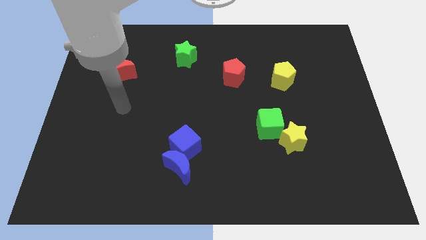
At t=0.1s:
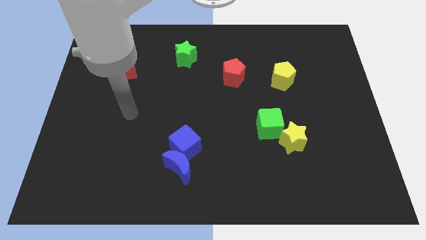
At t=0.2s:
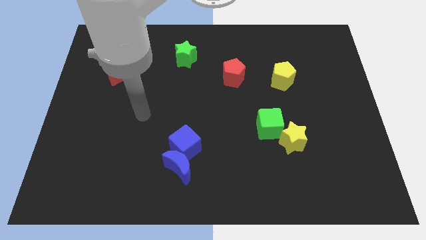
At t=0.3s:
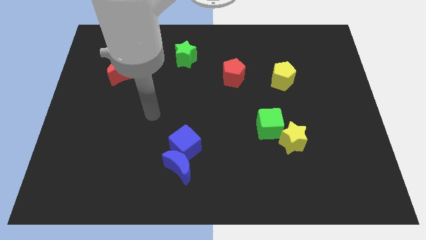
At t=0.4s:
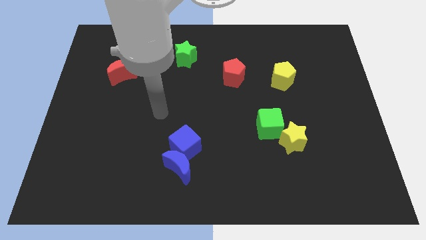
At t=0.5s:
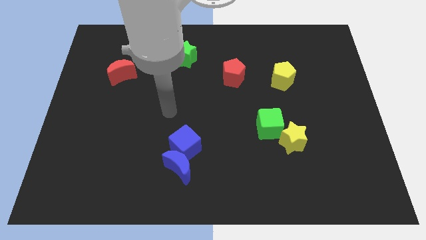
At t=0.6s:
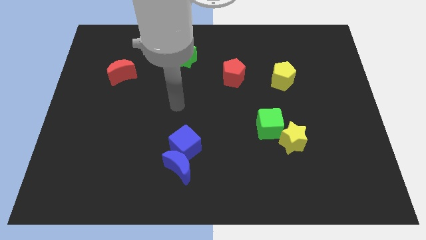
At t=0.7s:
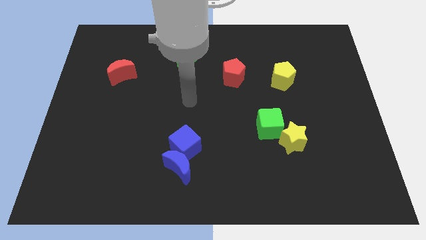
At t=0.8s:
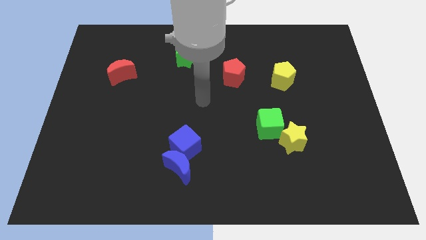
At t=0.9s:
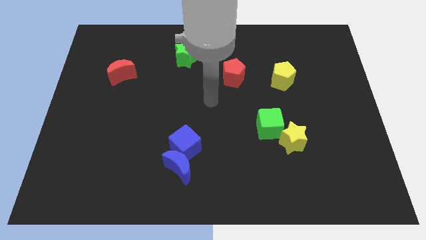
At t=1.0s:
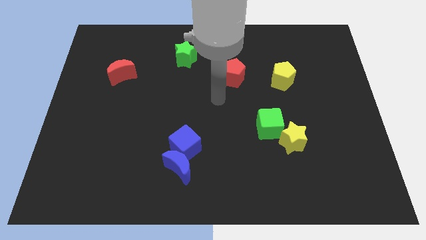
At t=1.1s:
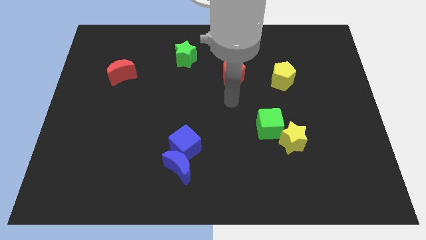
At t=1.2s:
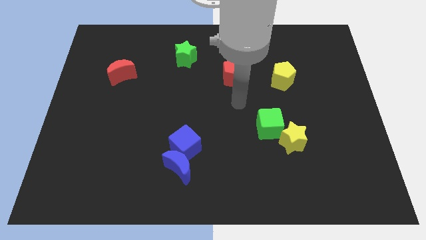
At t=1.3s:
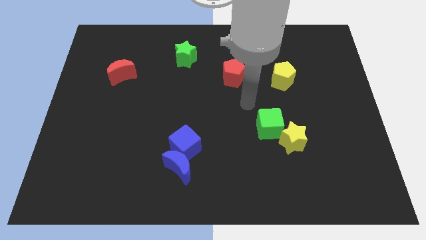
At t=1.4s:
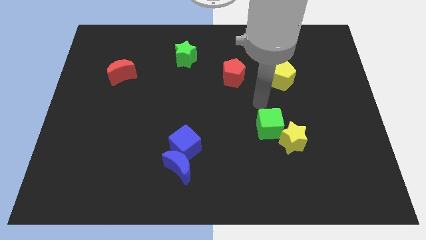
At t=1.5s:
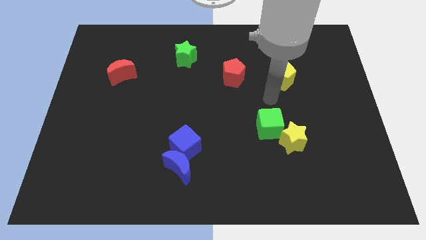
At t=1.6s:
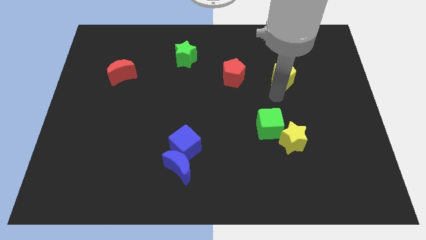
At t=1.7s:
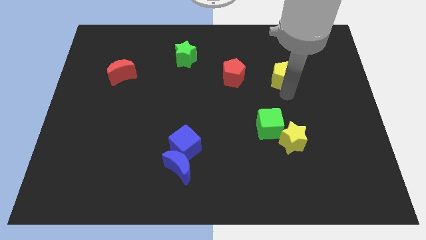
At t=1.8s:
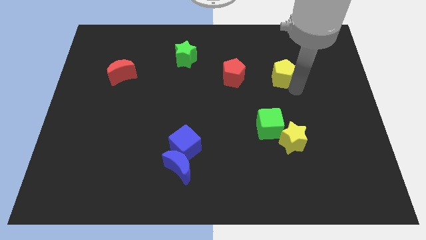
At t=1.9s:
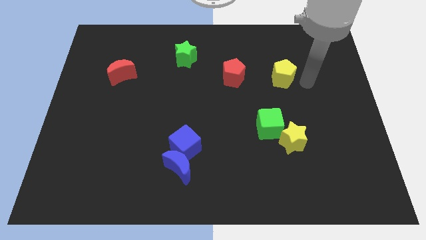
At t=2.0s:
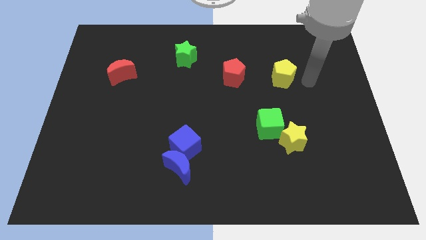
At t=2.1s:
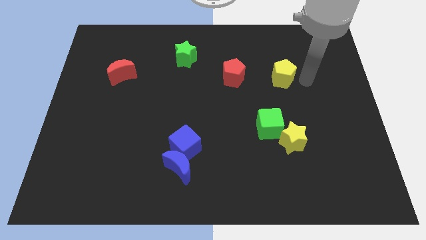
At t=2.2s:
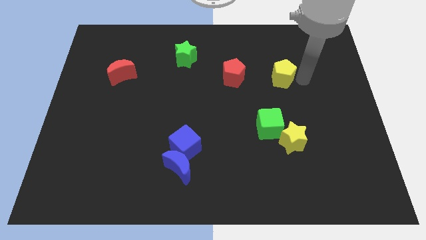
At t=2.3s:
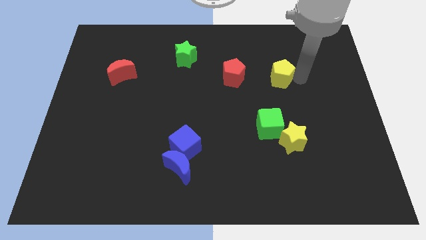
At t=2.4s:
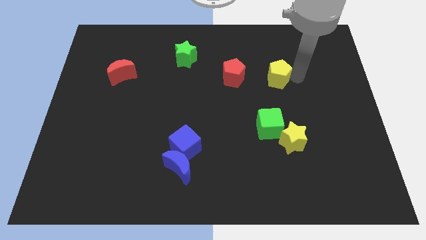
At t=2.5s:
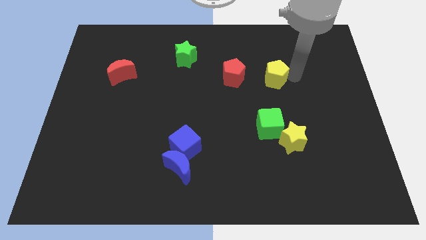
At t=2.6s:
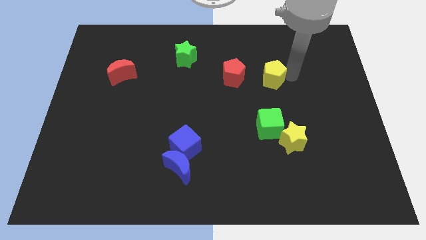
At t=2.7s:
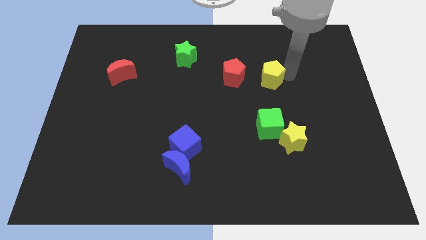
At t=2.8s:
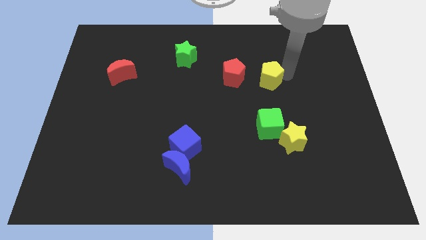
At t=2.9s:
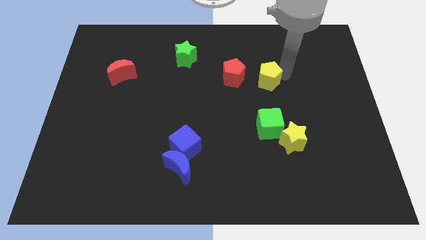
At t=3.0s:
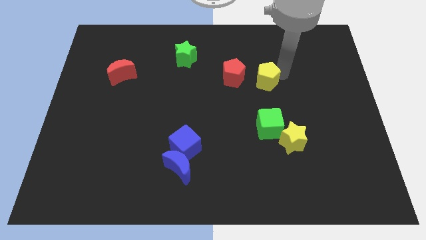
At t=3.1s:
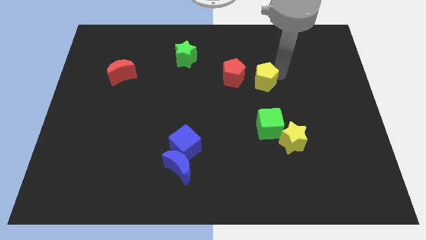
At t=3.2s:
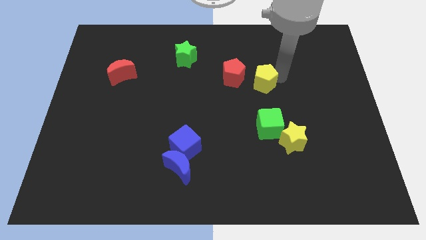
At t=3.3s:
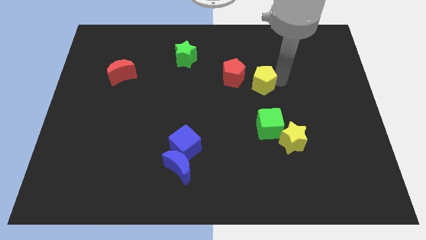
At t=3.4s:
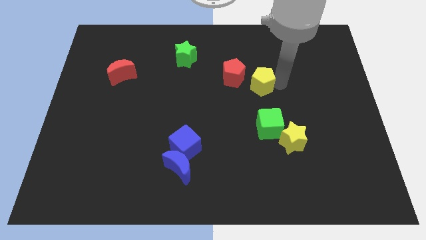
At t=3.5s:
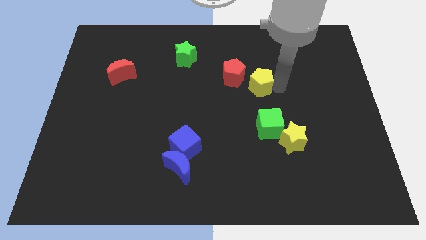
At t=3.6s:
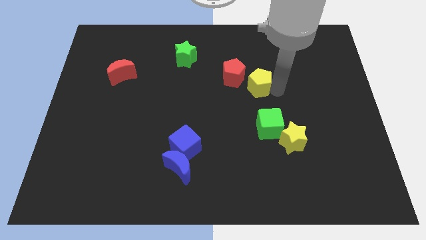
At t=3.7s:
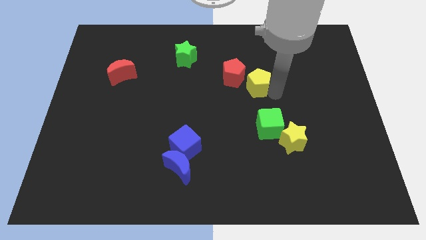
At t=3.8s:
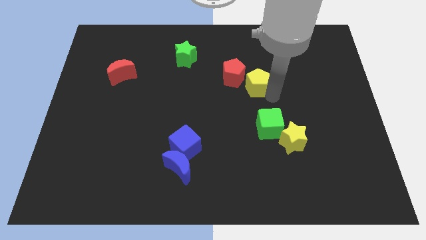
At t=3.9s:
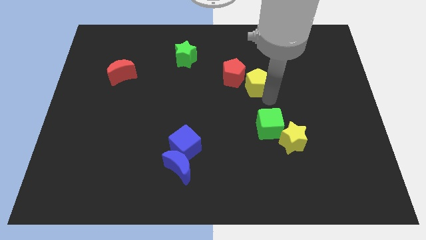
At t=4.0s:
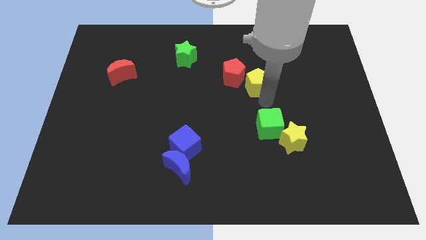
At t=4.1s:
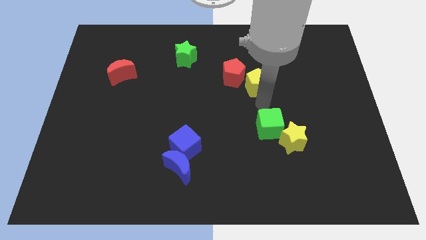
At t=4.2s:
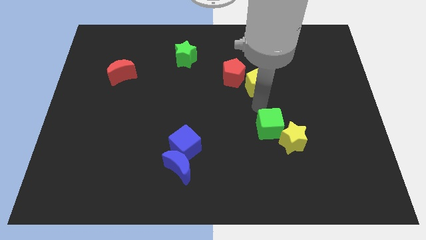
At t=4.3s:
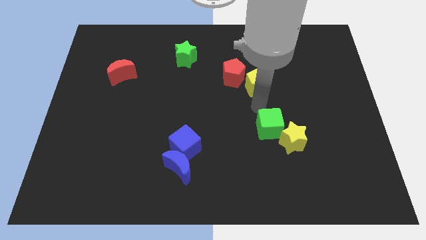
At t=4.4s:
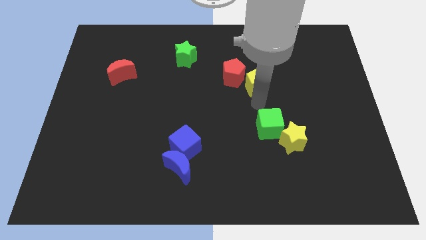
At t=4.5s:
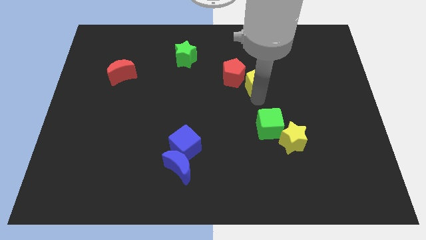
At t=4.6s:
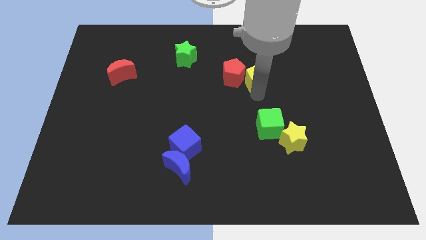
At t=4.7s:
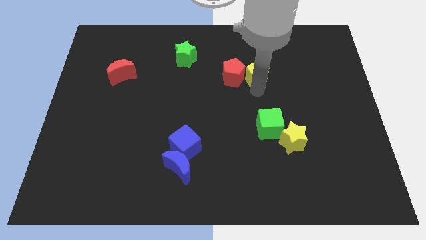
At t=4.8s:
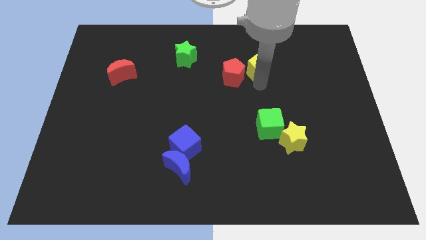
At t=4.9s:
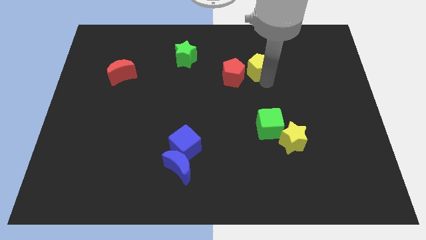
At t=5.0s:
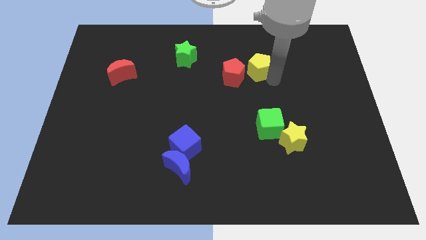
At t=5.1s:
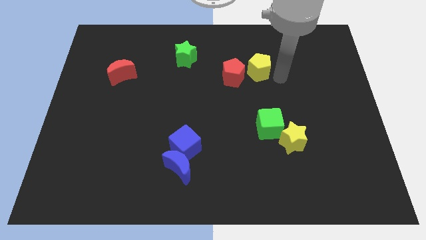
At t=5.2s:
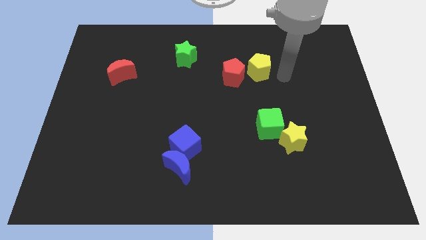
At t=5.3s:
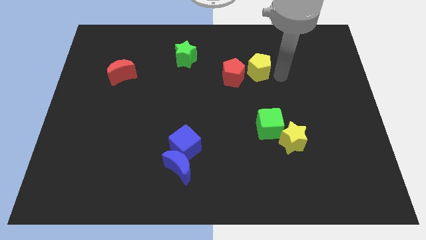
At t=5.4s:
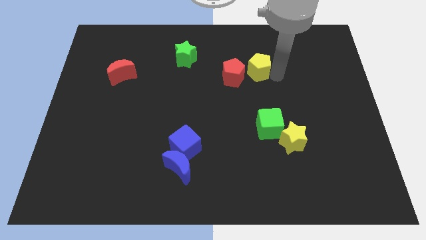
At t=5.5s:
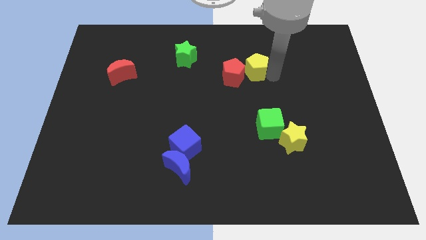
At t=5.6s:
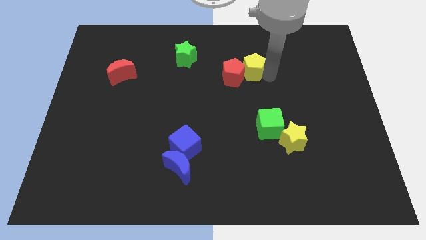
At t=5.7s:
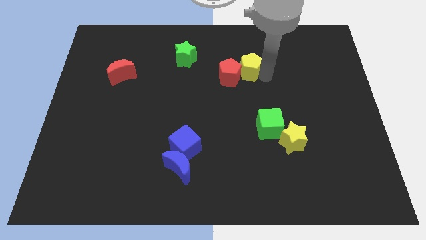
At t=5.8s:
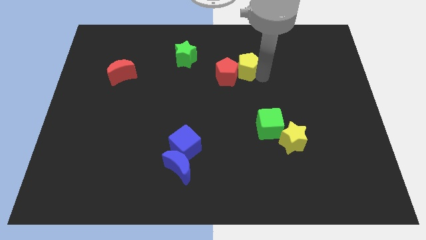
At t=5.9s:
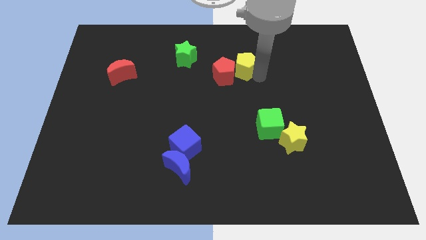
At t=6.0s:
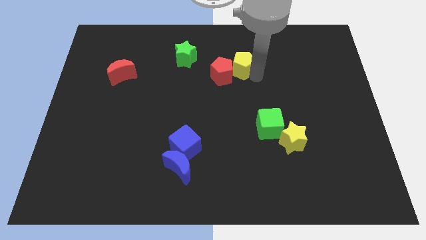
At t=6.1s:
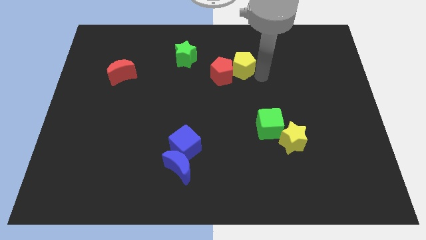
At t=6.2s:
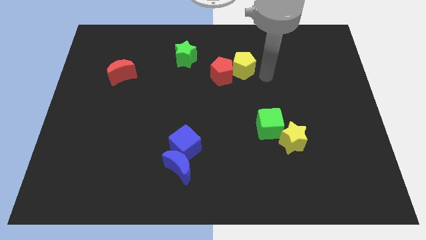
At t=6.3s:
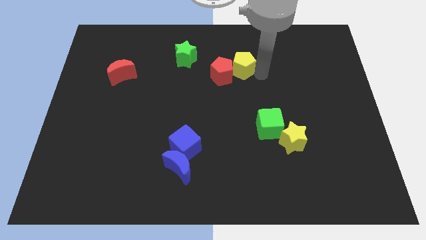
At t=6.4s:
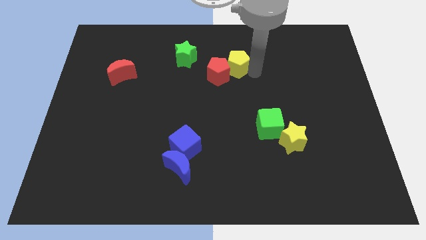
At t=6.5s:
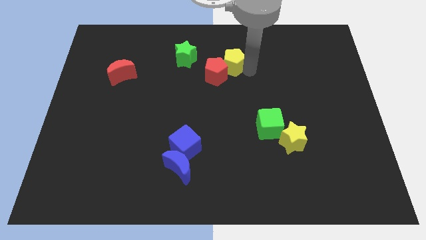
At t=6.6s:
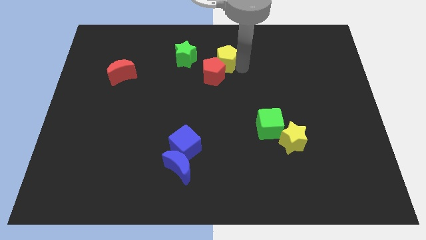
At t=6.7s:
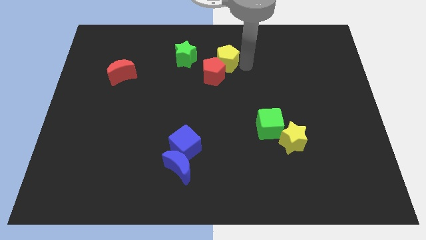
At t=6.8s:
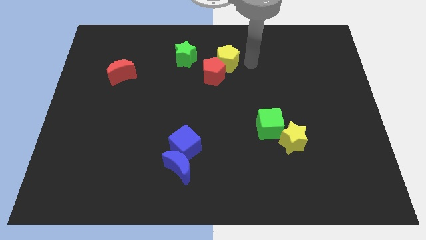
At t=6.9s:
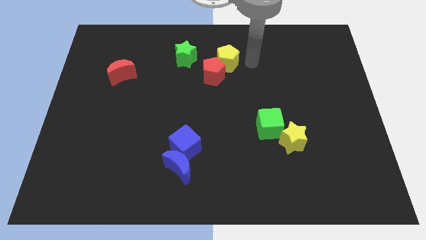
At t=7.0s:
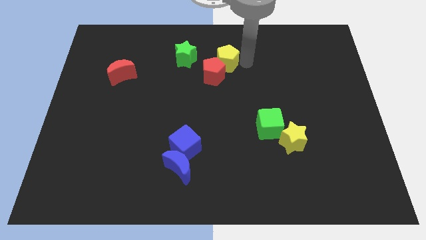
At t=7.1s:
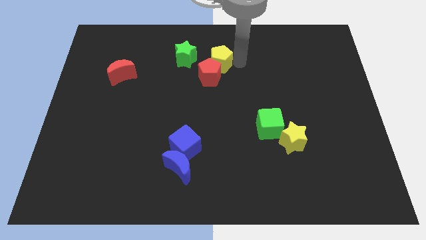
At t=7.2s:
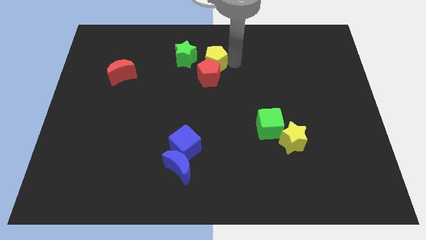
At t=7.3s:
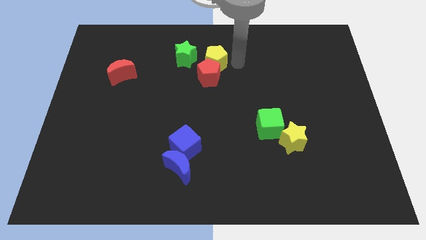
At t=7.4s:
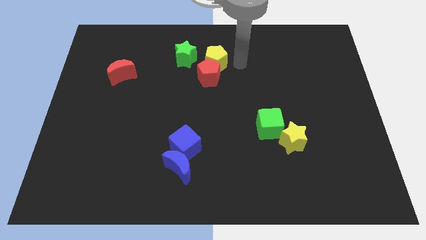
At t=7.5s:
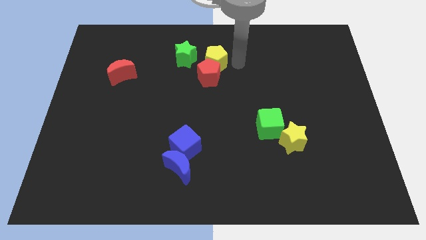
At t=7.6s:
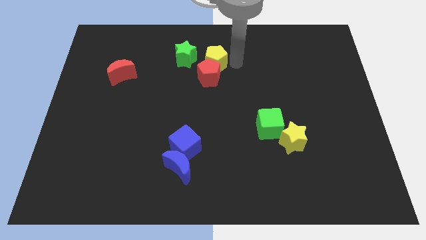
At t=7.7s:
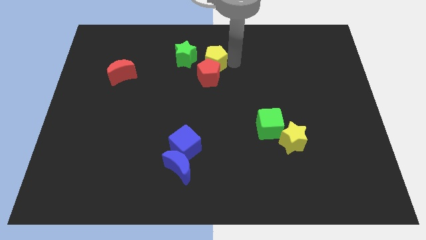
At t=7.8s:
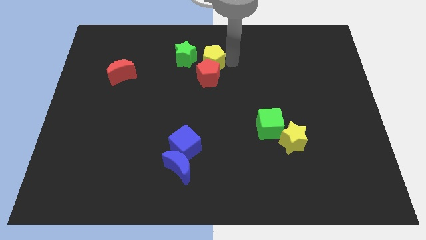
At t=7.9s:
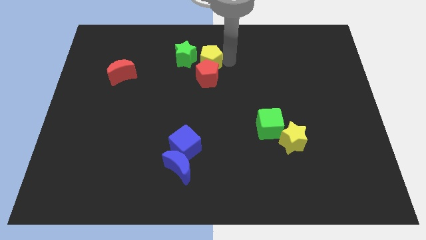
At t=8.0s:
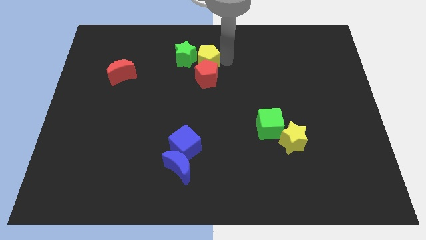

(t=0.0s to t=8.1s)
put the yellow pentagon close to the green star
